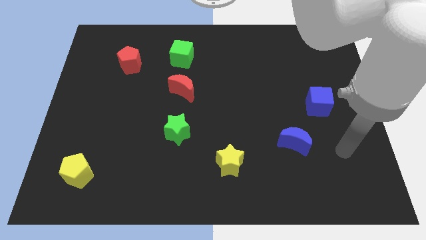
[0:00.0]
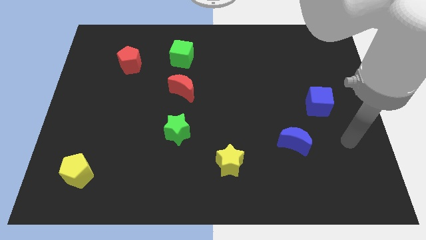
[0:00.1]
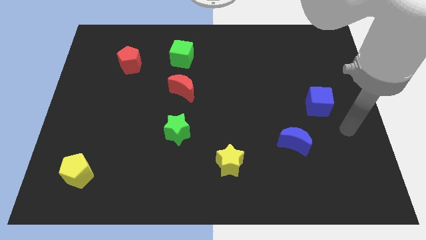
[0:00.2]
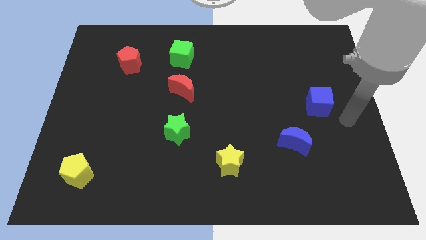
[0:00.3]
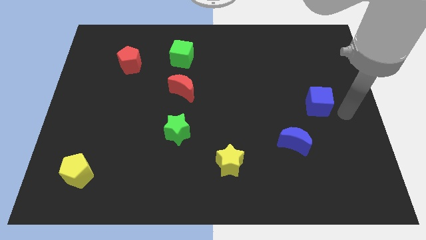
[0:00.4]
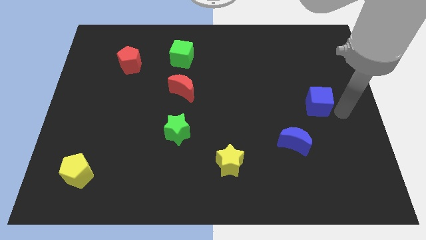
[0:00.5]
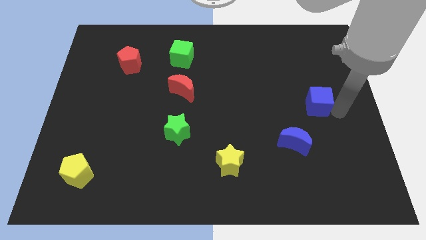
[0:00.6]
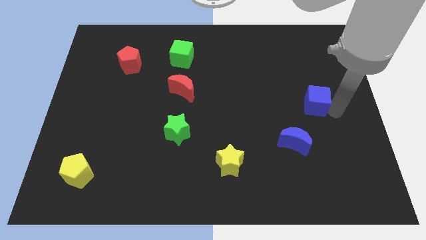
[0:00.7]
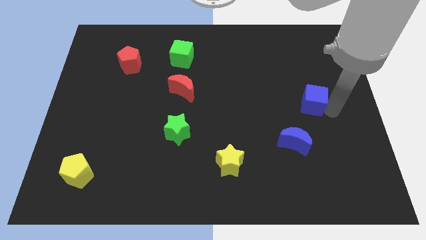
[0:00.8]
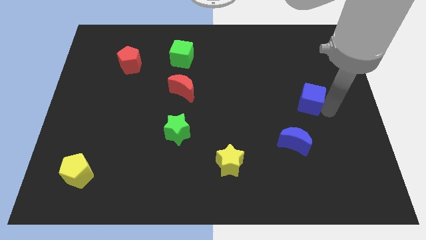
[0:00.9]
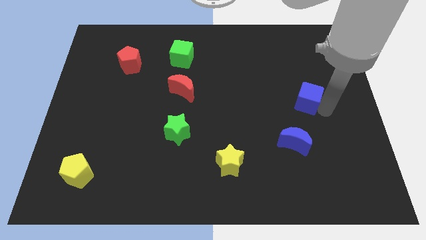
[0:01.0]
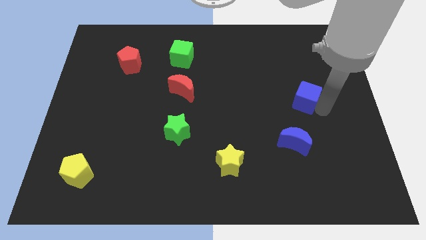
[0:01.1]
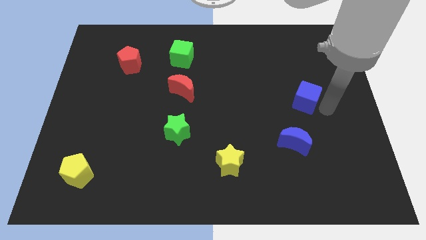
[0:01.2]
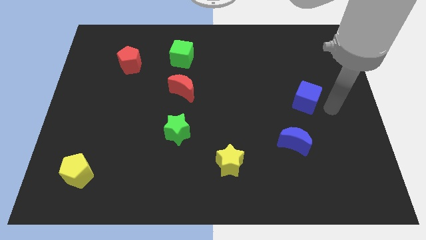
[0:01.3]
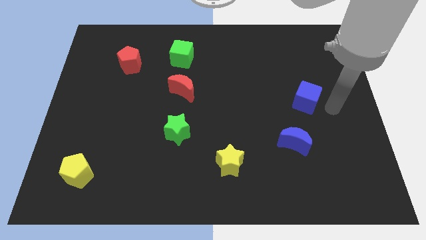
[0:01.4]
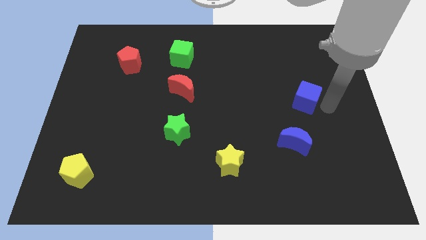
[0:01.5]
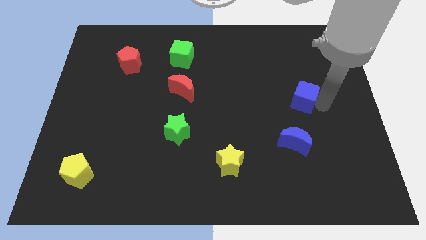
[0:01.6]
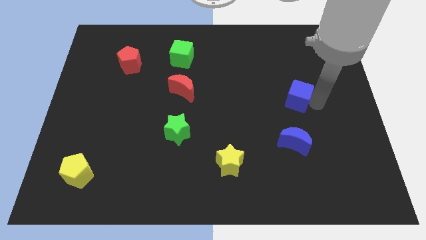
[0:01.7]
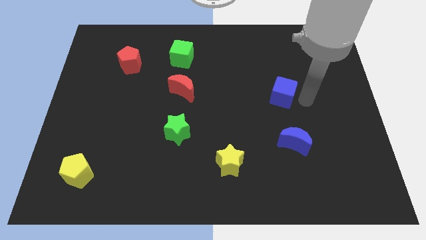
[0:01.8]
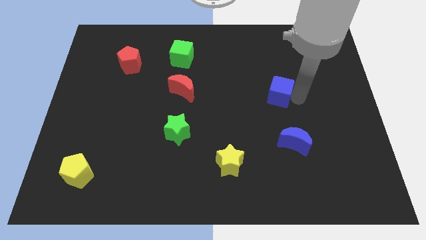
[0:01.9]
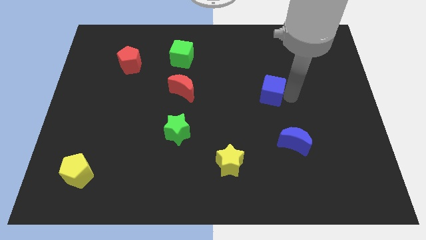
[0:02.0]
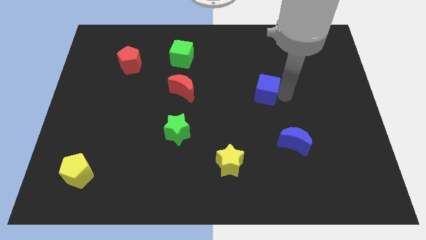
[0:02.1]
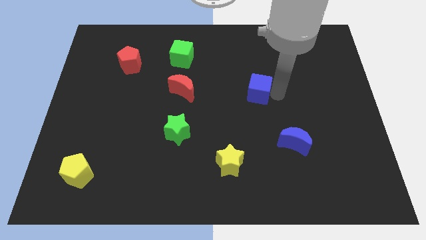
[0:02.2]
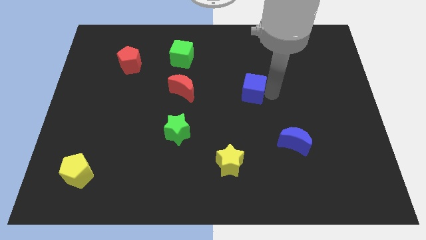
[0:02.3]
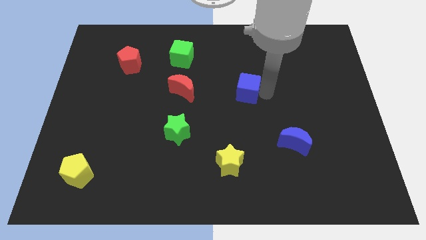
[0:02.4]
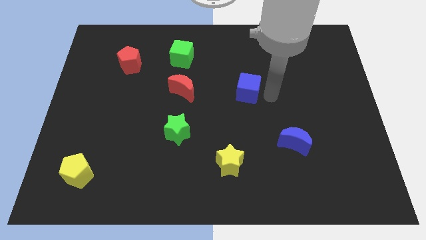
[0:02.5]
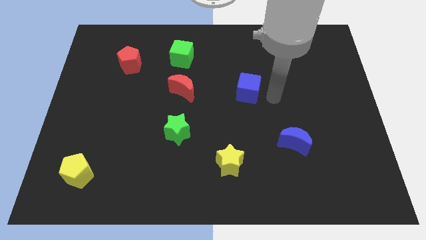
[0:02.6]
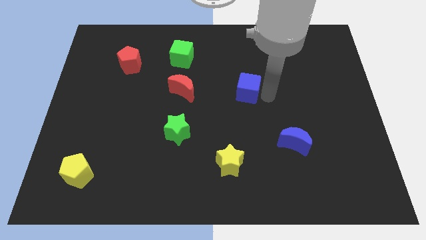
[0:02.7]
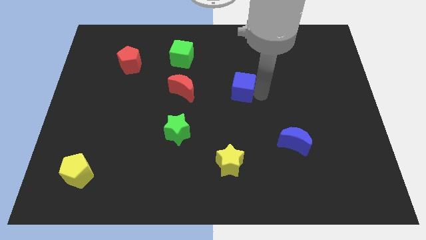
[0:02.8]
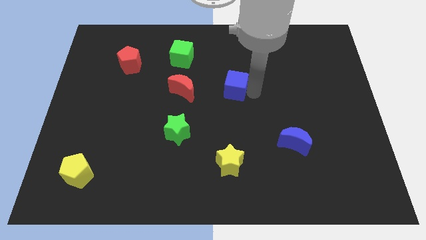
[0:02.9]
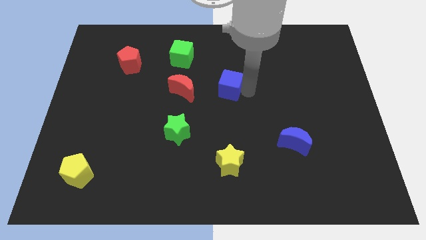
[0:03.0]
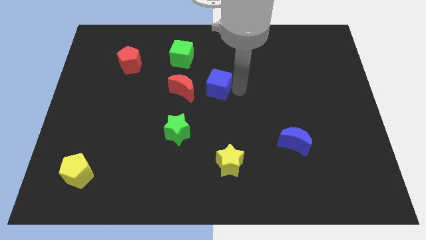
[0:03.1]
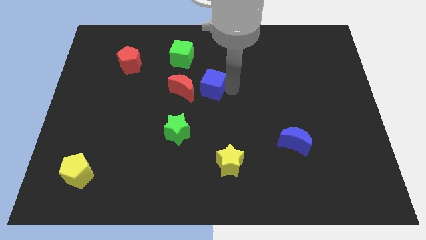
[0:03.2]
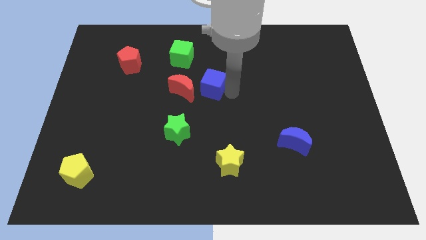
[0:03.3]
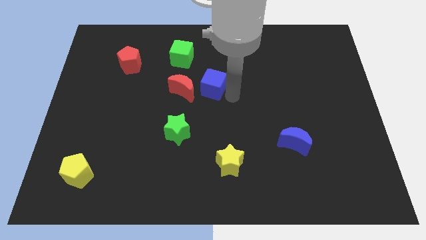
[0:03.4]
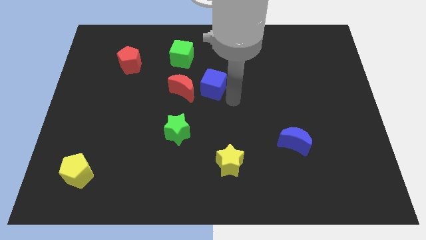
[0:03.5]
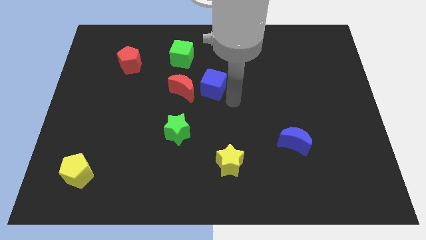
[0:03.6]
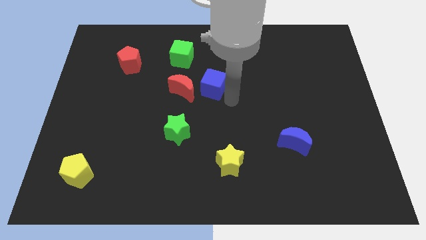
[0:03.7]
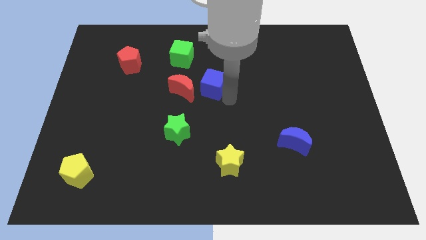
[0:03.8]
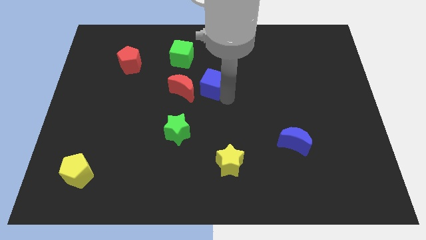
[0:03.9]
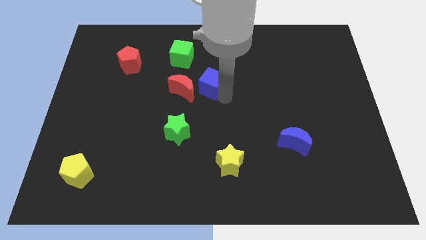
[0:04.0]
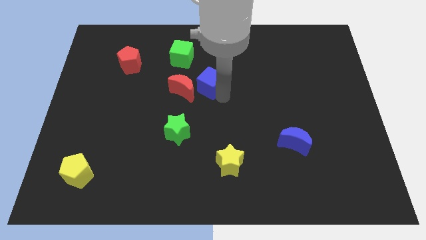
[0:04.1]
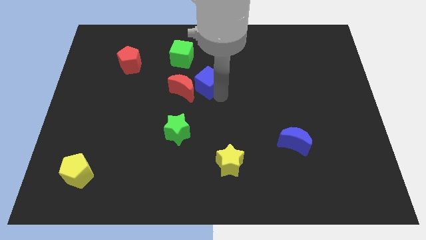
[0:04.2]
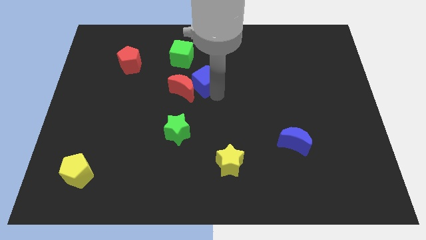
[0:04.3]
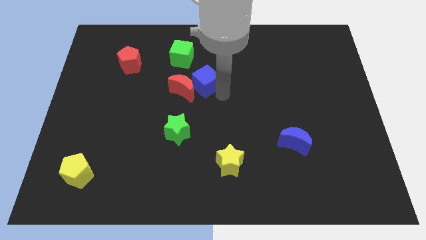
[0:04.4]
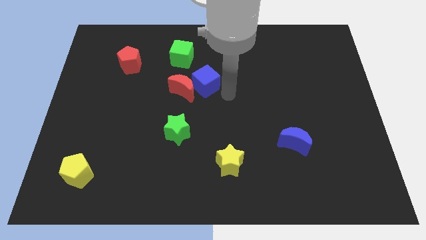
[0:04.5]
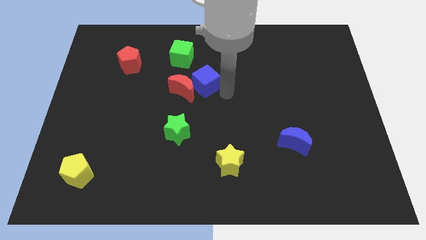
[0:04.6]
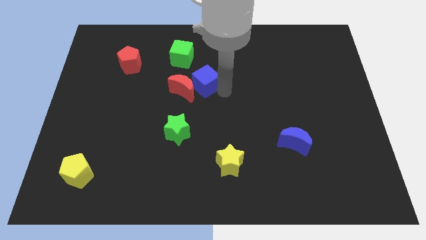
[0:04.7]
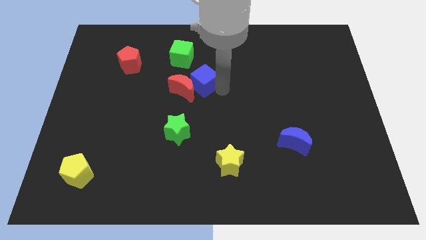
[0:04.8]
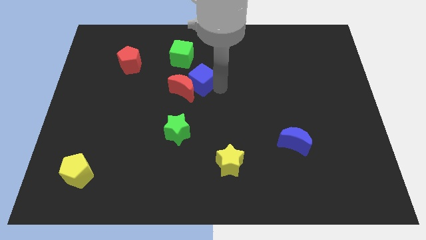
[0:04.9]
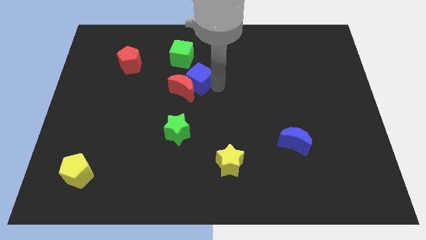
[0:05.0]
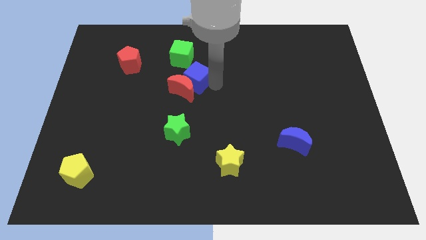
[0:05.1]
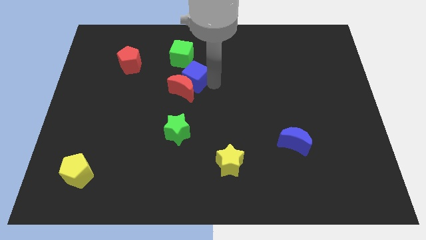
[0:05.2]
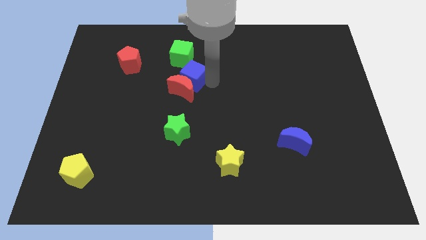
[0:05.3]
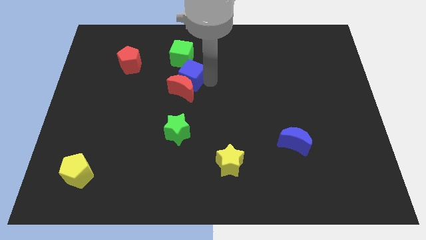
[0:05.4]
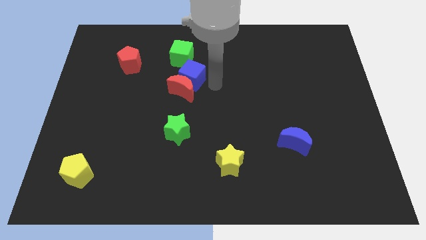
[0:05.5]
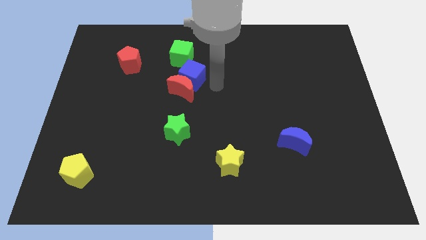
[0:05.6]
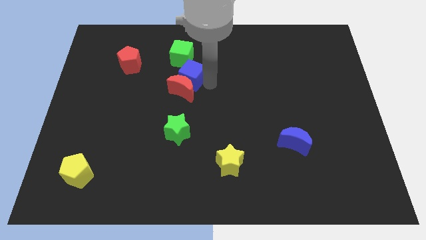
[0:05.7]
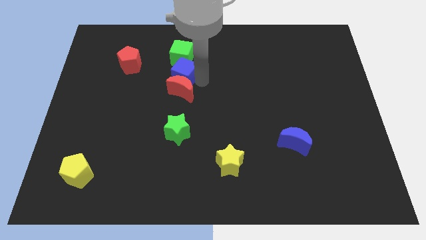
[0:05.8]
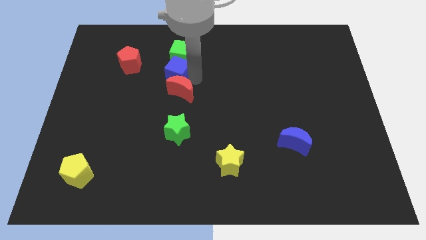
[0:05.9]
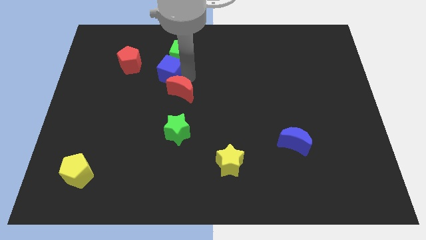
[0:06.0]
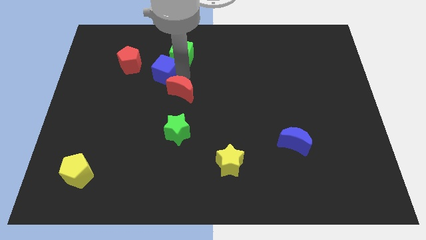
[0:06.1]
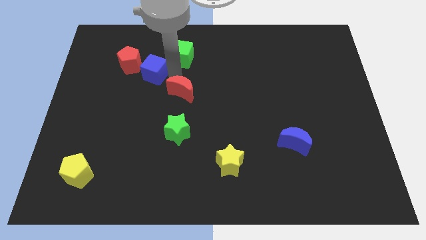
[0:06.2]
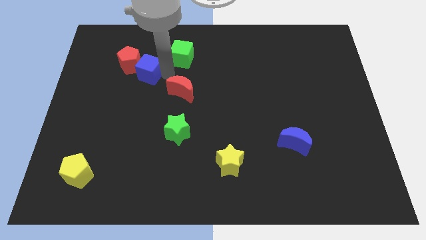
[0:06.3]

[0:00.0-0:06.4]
push the blue cube close to the red pentagon

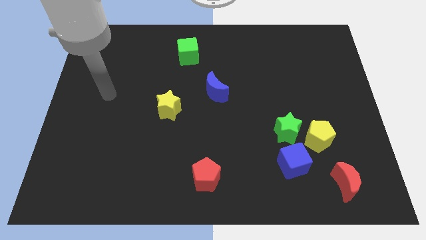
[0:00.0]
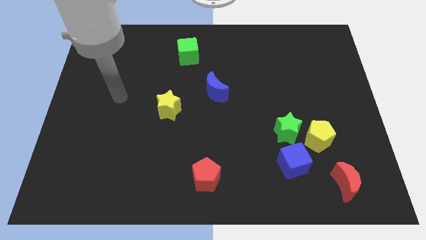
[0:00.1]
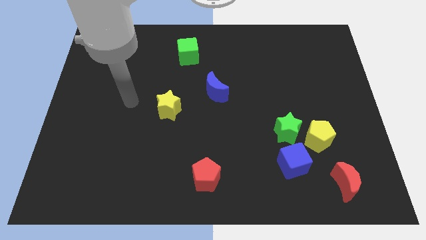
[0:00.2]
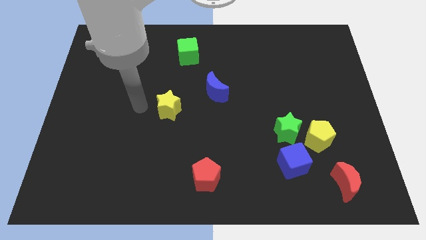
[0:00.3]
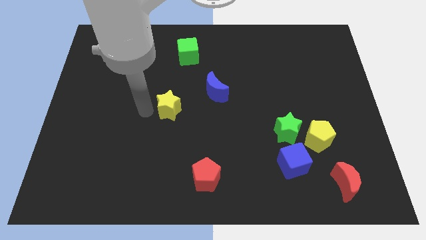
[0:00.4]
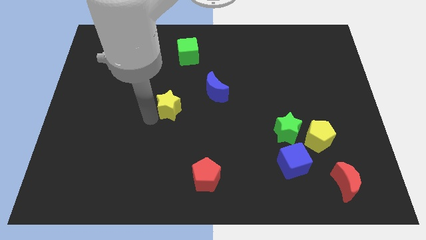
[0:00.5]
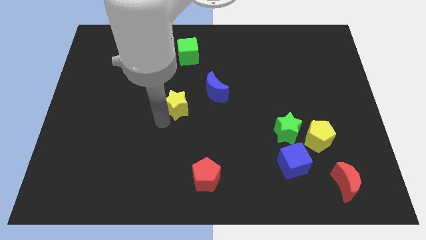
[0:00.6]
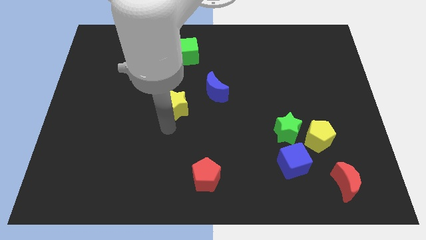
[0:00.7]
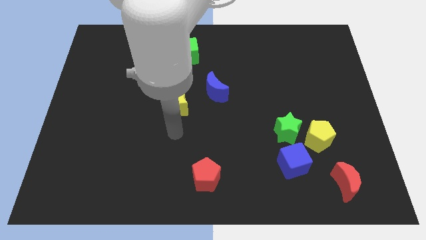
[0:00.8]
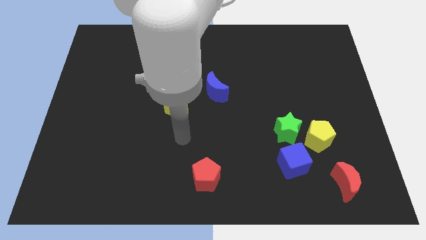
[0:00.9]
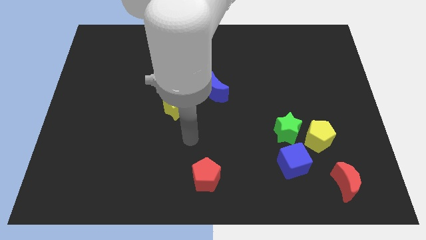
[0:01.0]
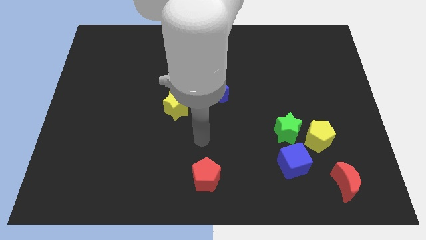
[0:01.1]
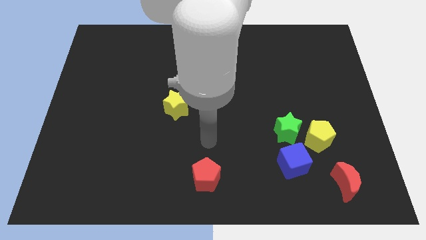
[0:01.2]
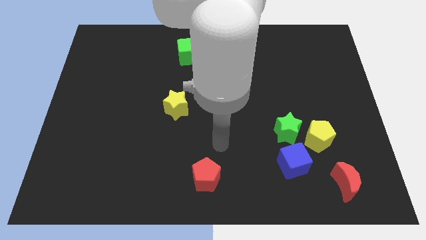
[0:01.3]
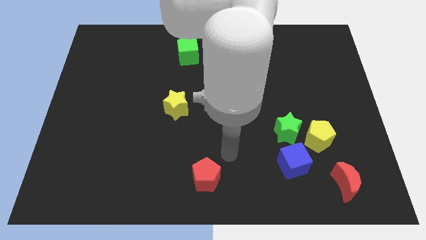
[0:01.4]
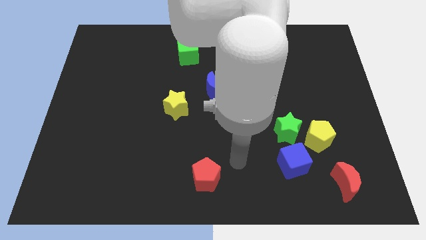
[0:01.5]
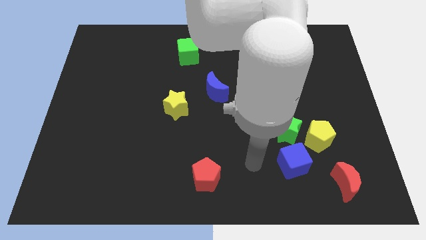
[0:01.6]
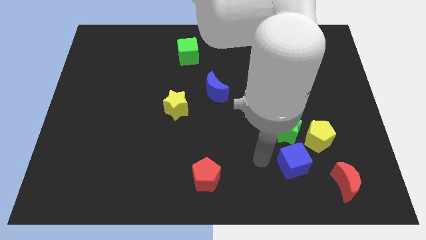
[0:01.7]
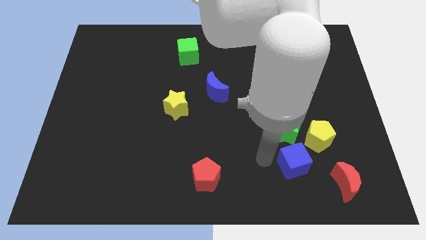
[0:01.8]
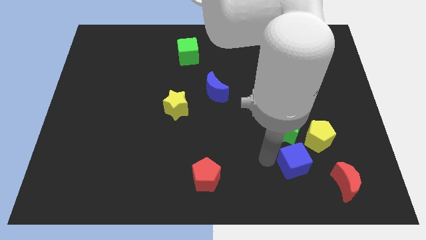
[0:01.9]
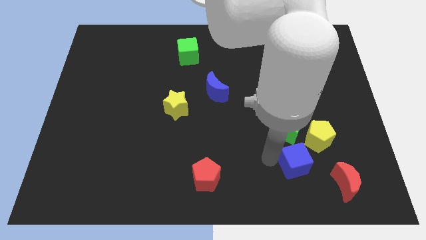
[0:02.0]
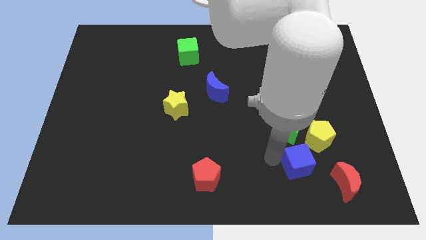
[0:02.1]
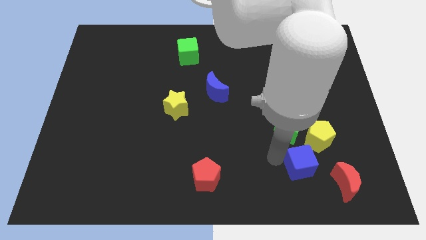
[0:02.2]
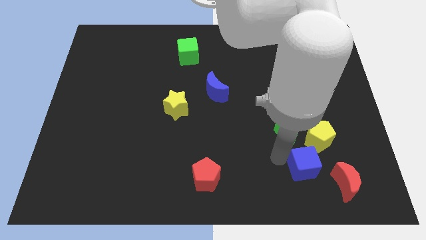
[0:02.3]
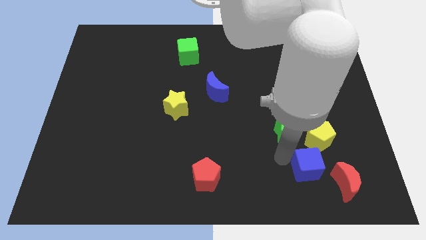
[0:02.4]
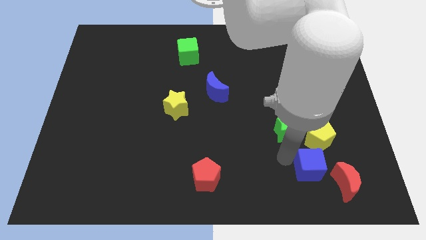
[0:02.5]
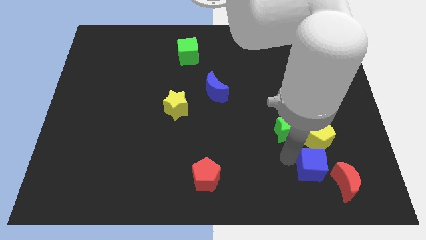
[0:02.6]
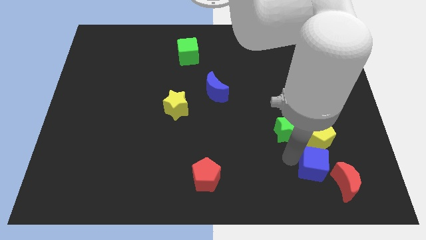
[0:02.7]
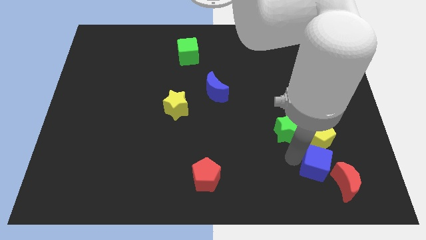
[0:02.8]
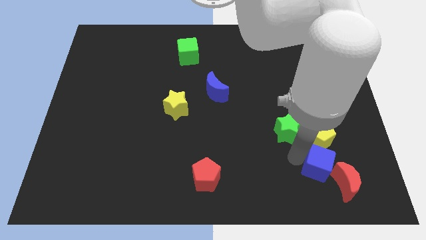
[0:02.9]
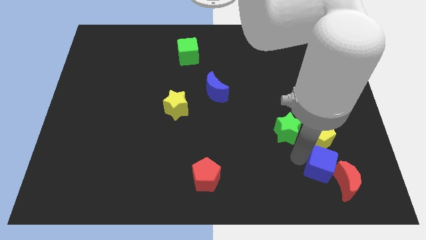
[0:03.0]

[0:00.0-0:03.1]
slide the blue cube to the red moon
